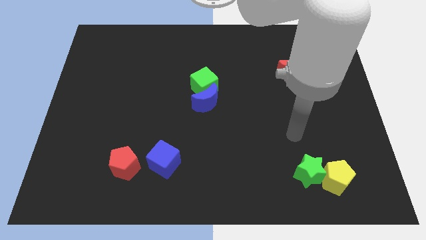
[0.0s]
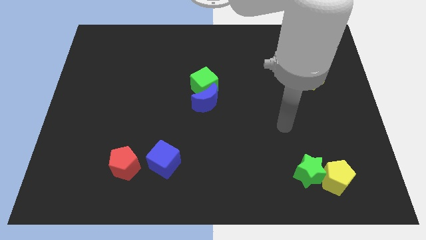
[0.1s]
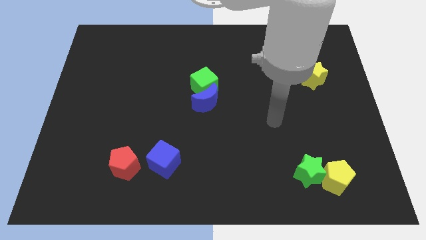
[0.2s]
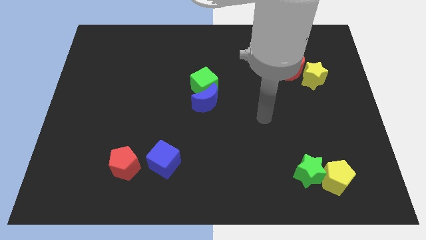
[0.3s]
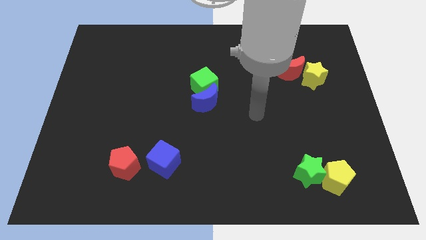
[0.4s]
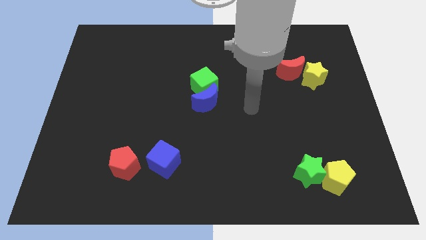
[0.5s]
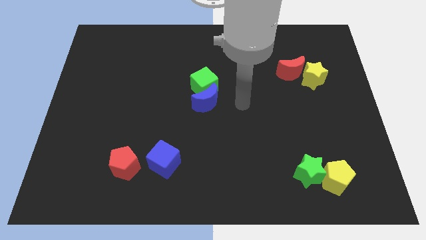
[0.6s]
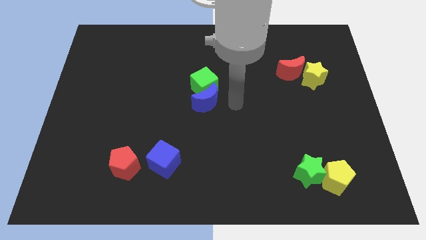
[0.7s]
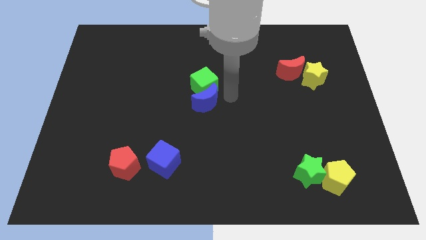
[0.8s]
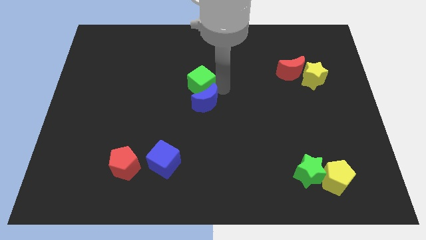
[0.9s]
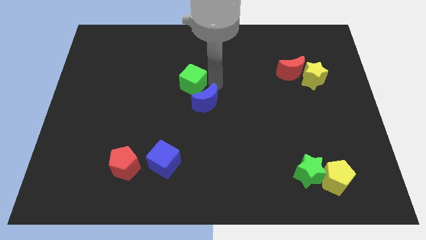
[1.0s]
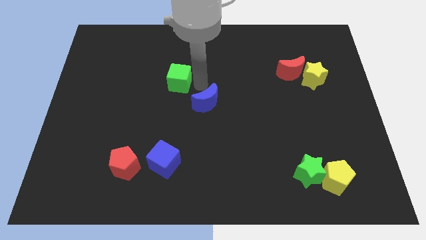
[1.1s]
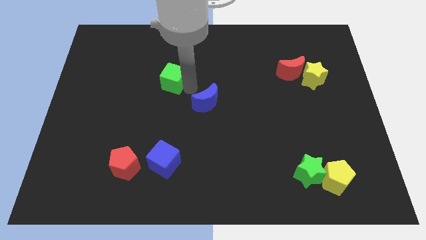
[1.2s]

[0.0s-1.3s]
move the blue moon away from the green cube

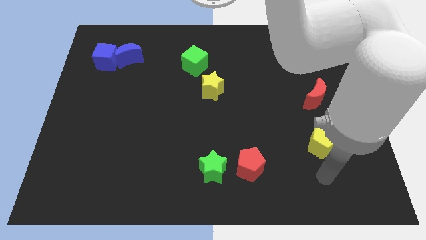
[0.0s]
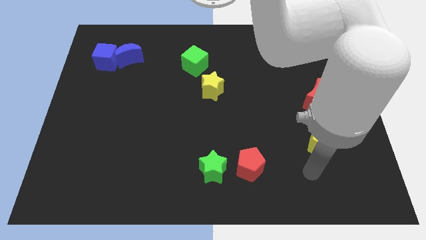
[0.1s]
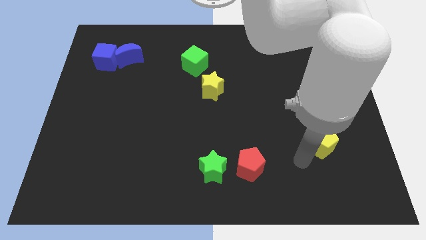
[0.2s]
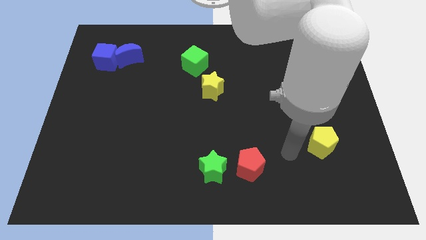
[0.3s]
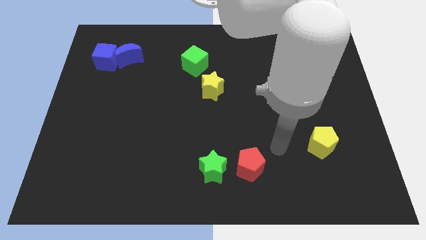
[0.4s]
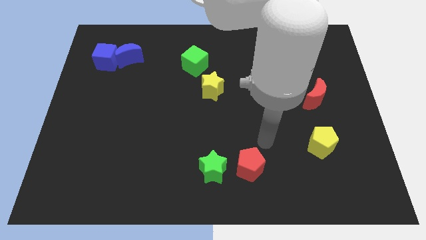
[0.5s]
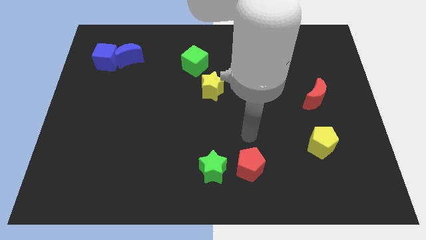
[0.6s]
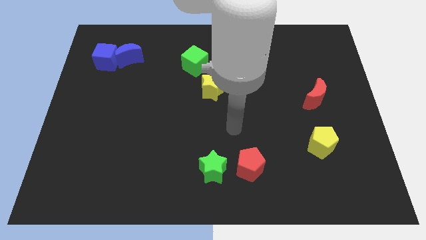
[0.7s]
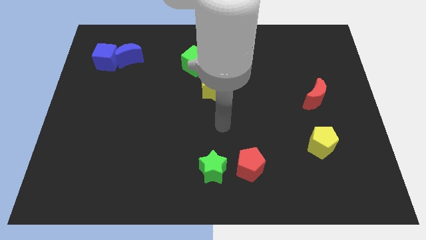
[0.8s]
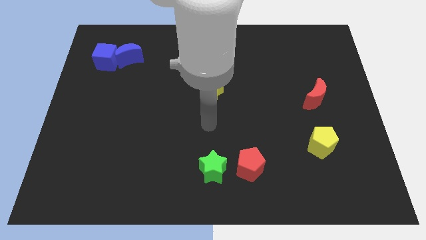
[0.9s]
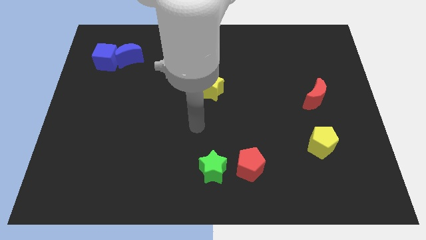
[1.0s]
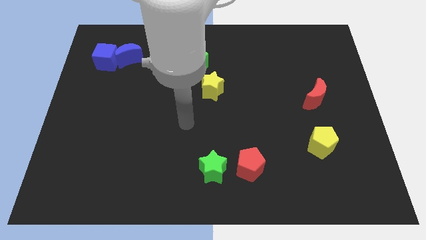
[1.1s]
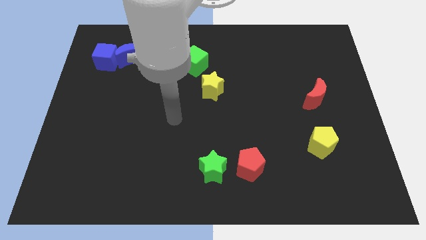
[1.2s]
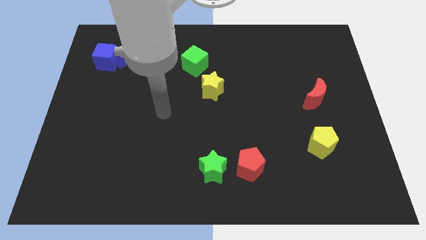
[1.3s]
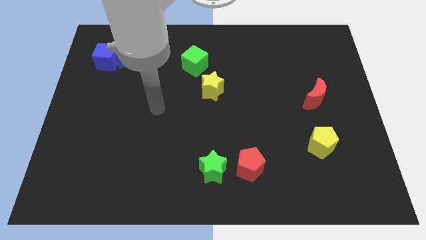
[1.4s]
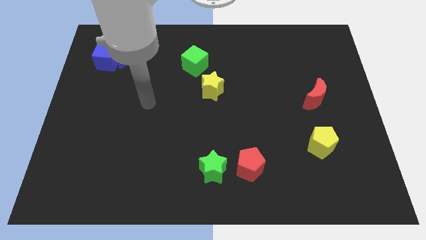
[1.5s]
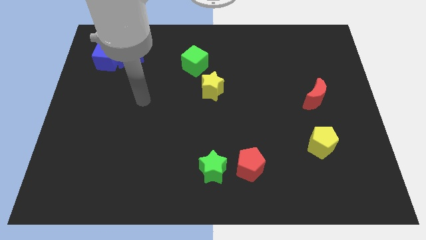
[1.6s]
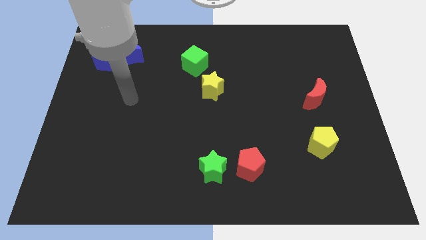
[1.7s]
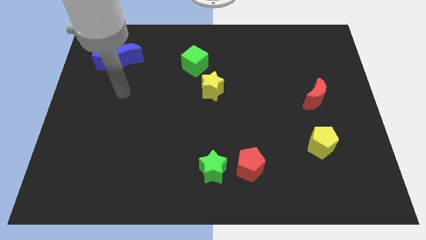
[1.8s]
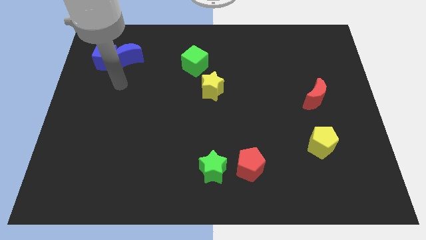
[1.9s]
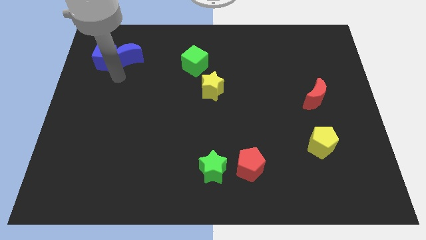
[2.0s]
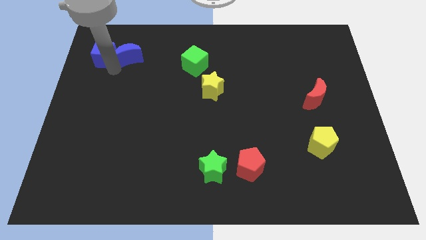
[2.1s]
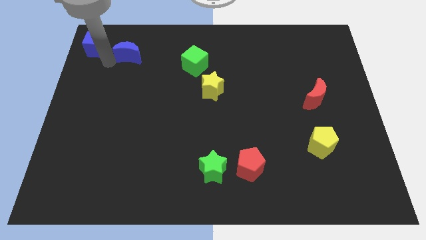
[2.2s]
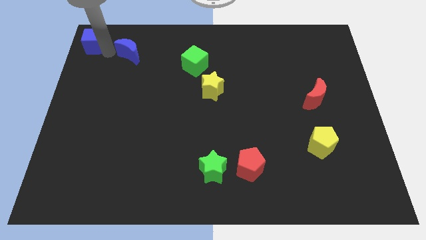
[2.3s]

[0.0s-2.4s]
move the blue moon away from the blue cube

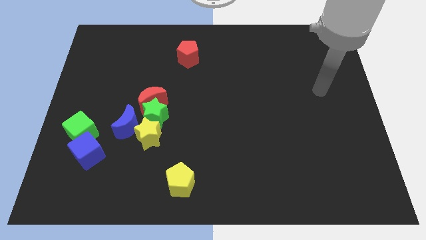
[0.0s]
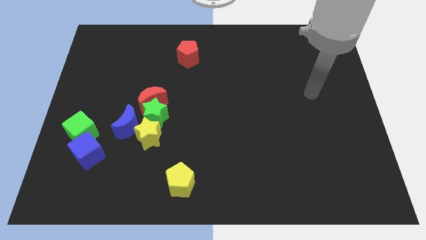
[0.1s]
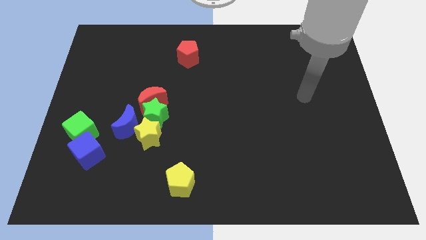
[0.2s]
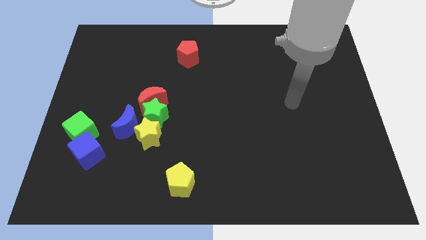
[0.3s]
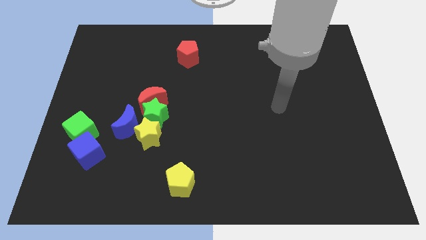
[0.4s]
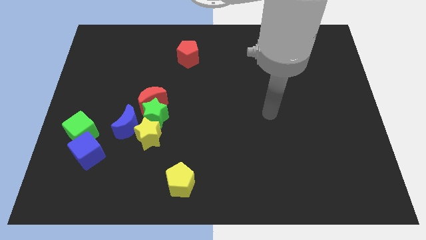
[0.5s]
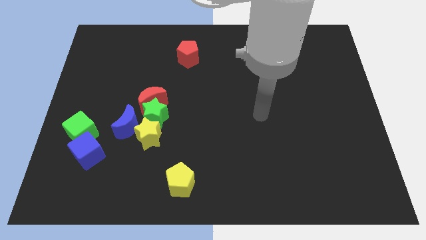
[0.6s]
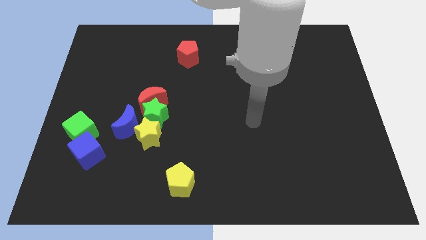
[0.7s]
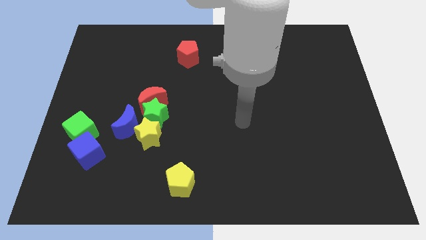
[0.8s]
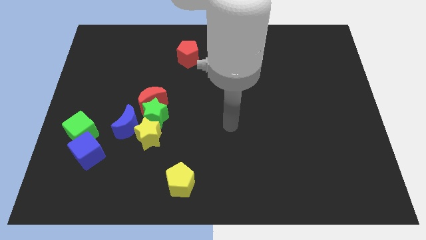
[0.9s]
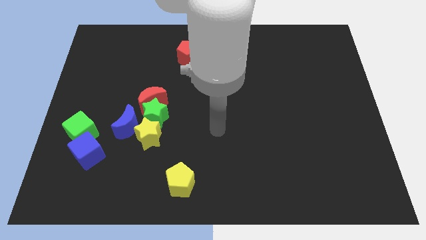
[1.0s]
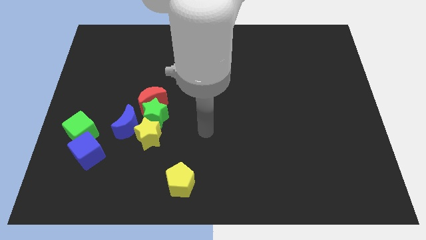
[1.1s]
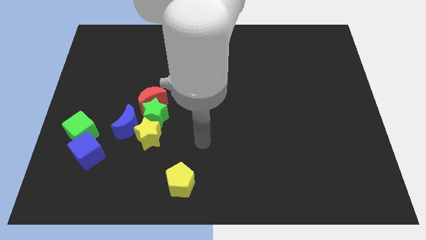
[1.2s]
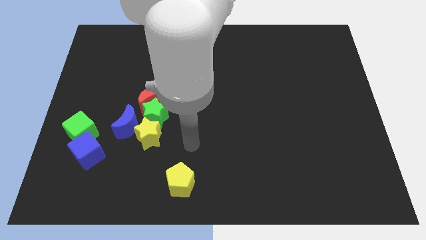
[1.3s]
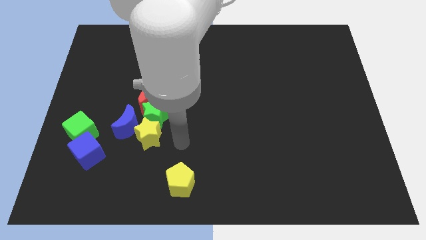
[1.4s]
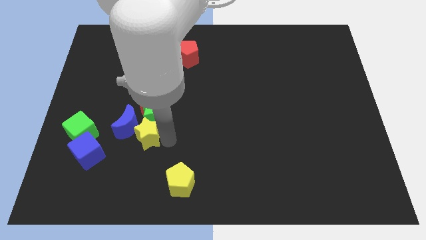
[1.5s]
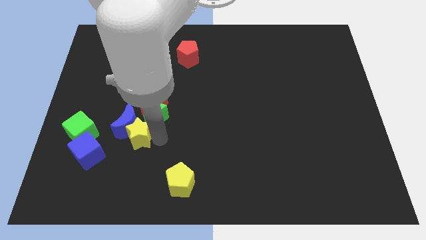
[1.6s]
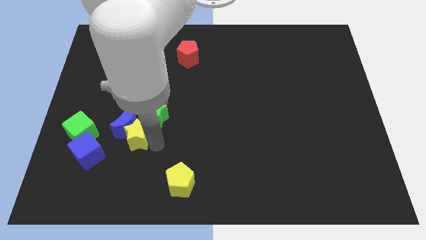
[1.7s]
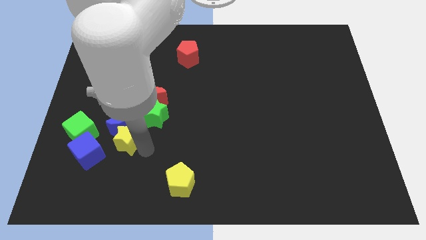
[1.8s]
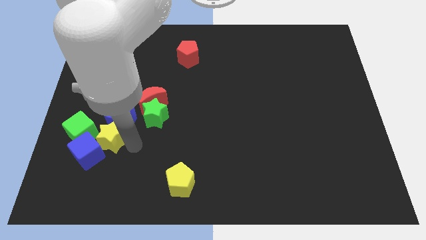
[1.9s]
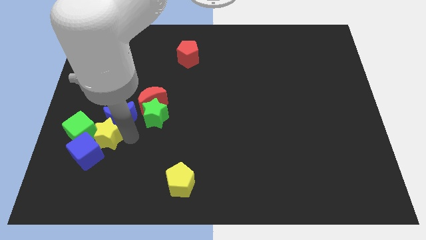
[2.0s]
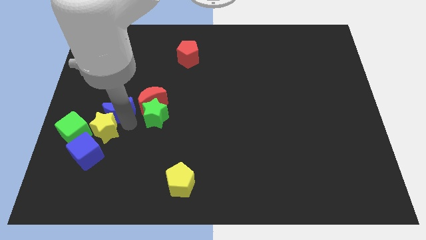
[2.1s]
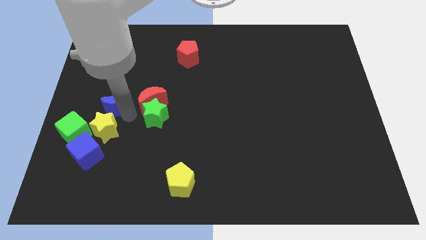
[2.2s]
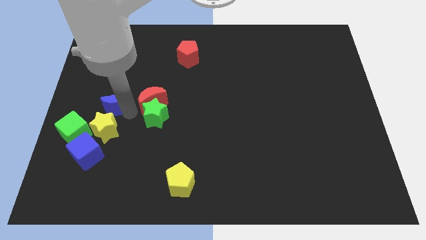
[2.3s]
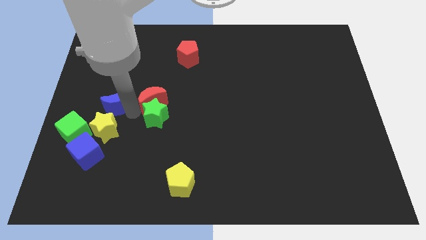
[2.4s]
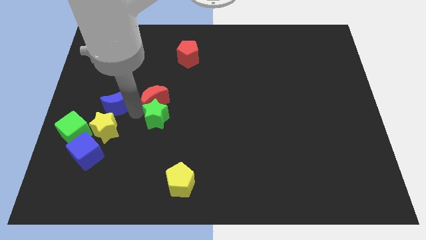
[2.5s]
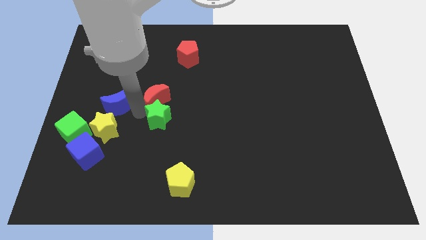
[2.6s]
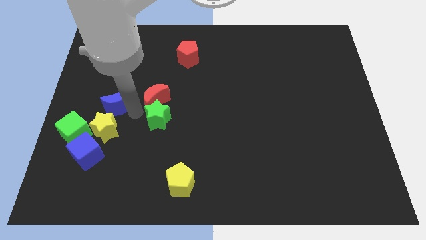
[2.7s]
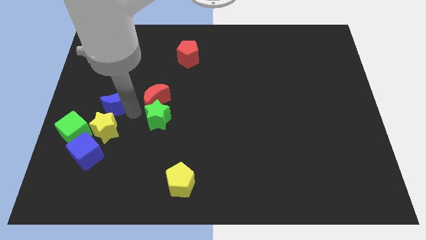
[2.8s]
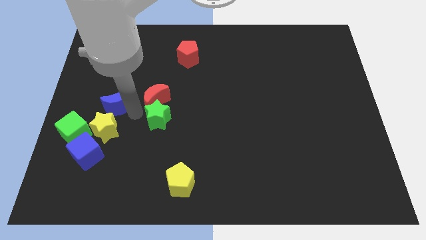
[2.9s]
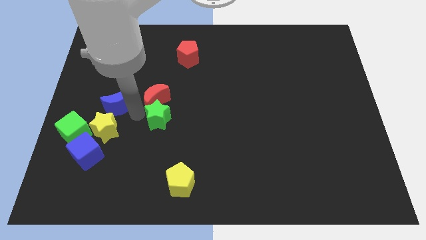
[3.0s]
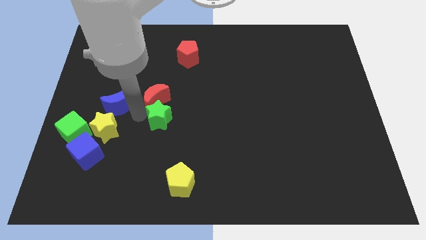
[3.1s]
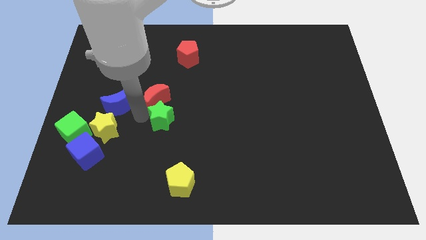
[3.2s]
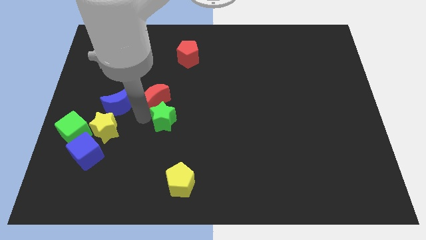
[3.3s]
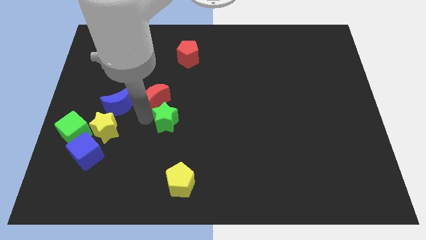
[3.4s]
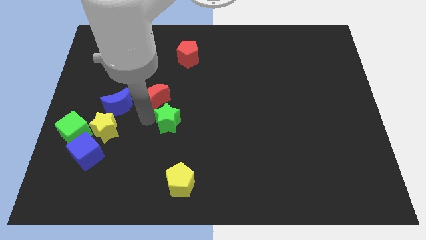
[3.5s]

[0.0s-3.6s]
move the green star away from the group

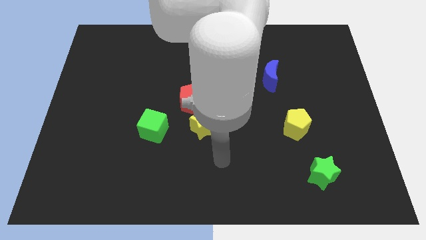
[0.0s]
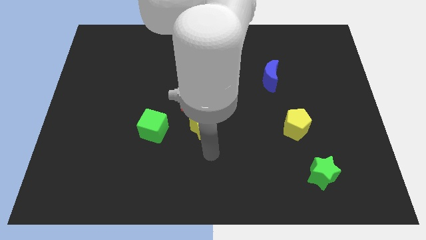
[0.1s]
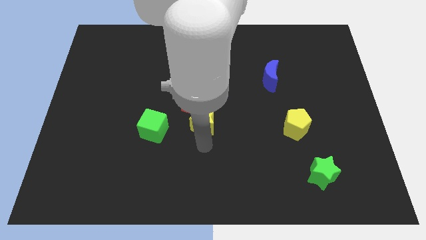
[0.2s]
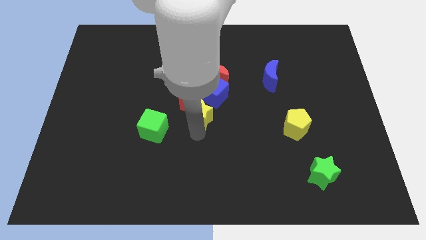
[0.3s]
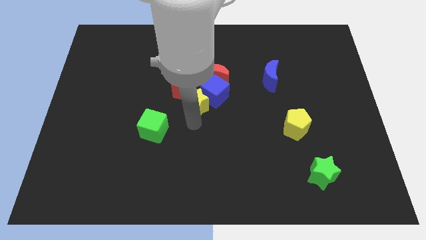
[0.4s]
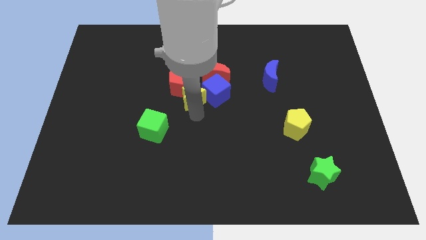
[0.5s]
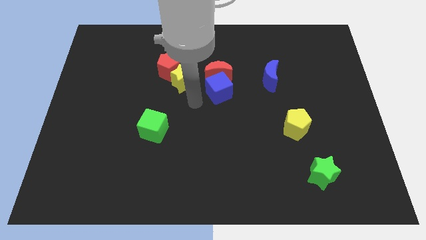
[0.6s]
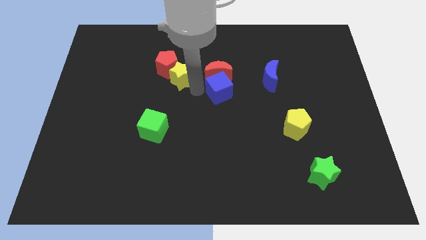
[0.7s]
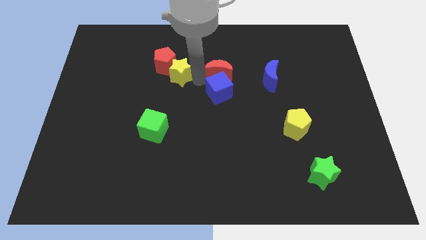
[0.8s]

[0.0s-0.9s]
separate the blue cube from the red moon, red pentagon, and yellow star

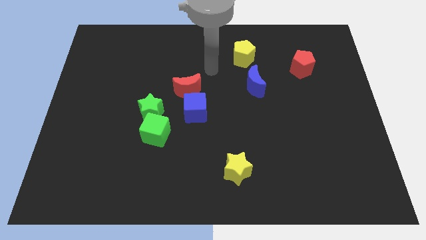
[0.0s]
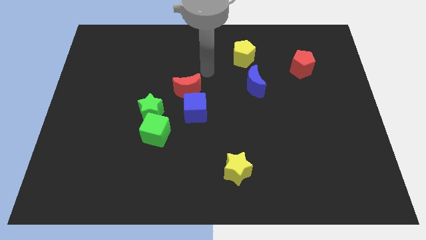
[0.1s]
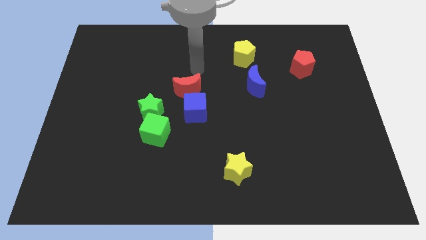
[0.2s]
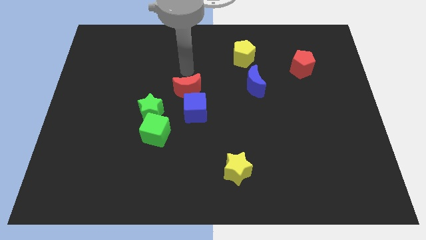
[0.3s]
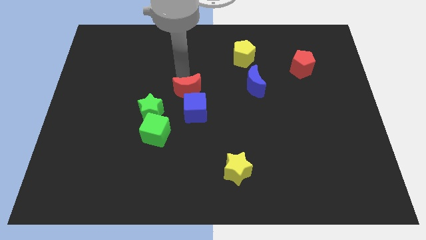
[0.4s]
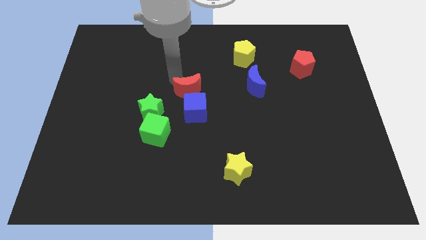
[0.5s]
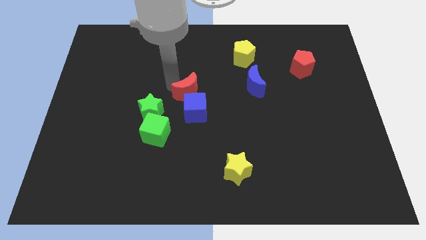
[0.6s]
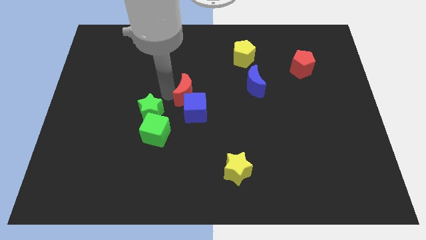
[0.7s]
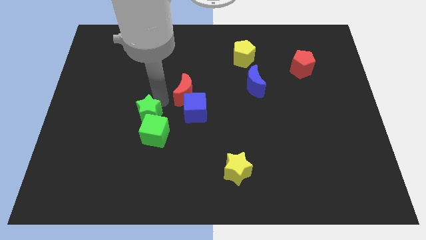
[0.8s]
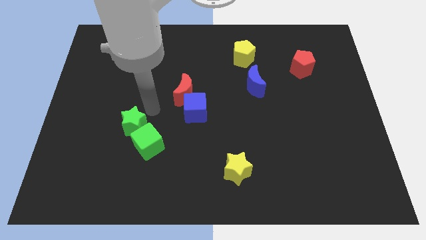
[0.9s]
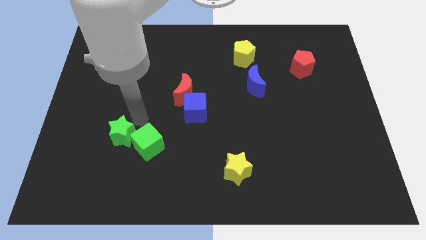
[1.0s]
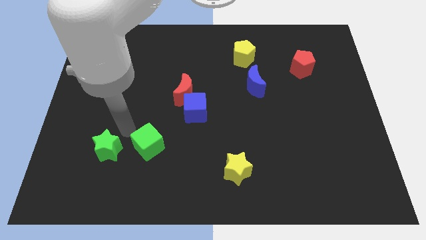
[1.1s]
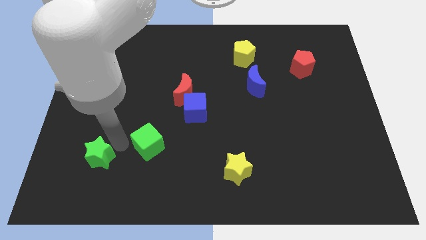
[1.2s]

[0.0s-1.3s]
separate the green cube from the green star
